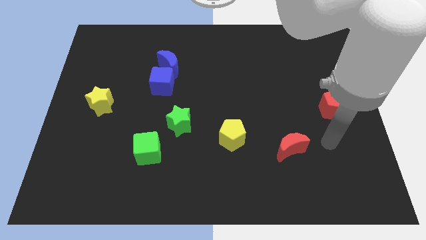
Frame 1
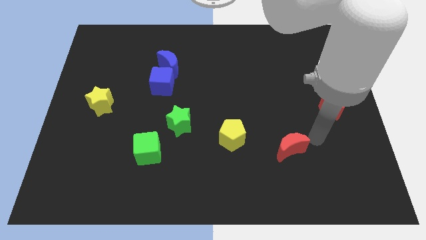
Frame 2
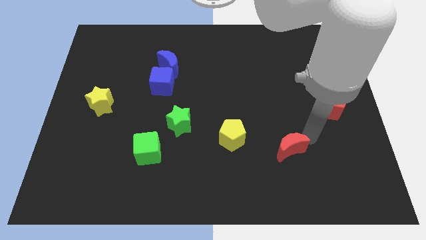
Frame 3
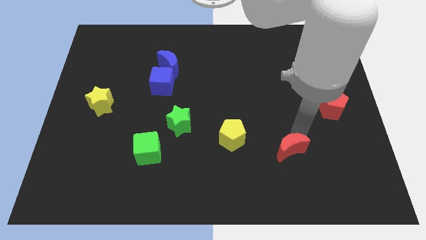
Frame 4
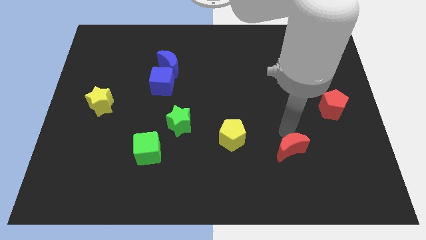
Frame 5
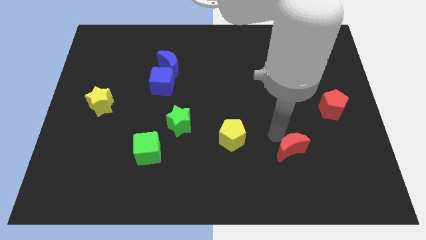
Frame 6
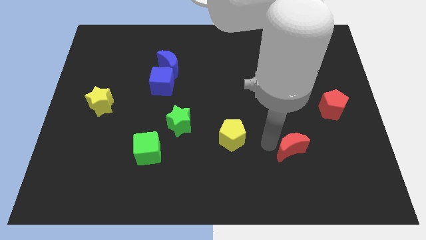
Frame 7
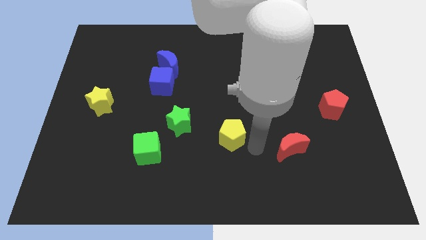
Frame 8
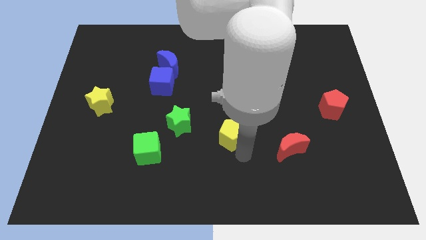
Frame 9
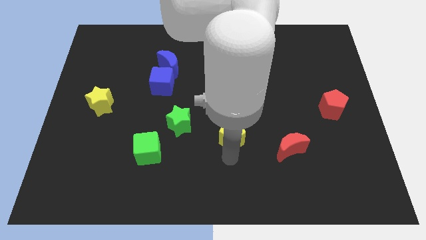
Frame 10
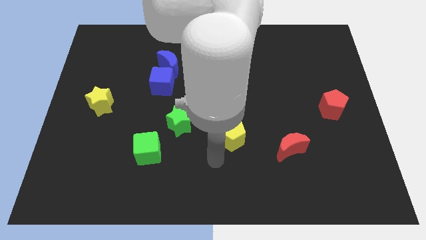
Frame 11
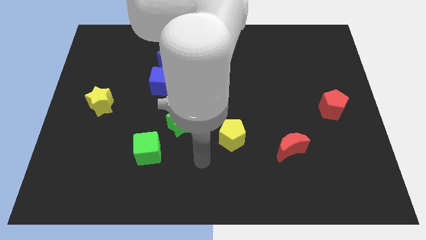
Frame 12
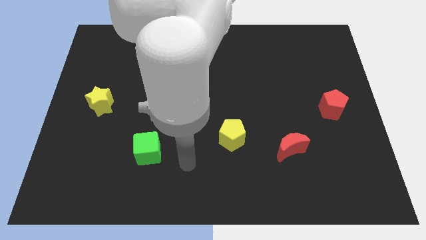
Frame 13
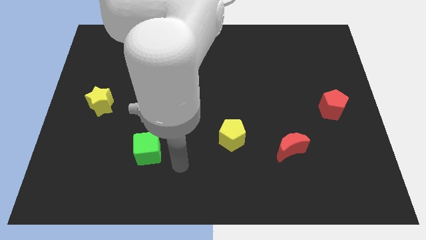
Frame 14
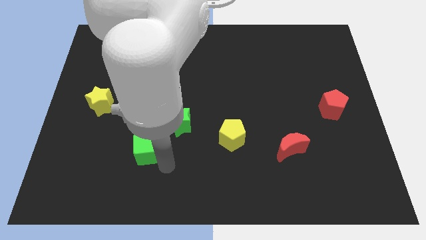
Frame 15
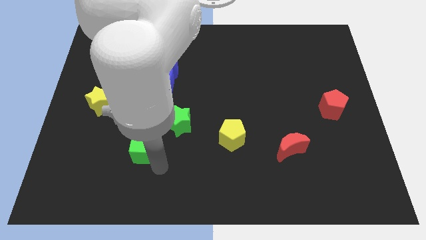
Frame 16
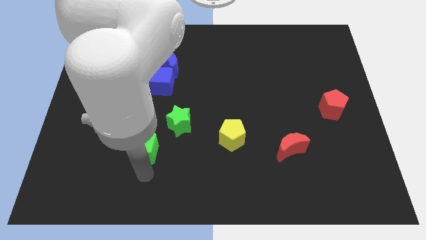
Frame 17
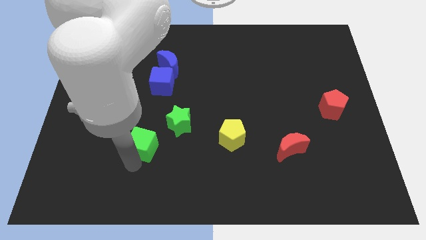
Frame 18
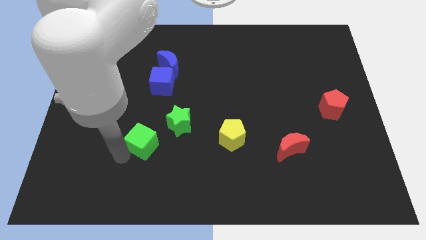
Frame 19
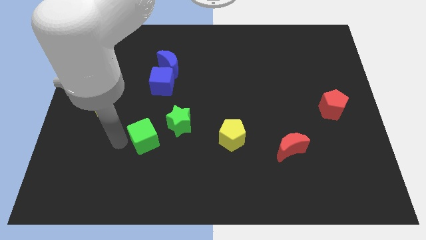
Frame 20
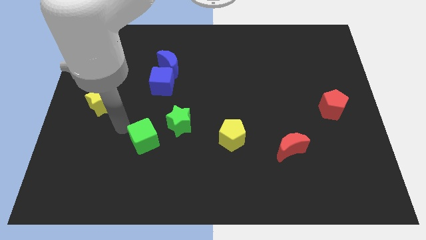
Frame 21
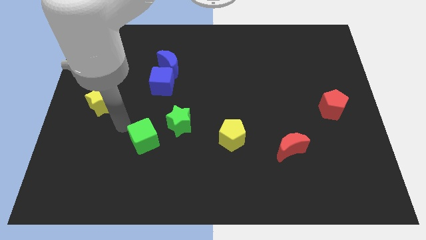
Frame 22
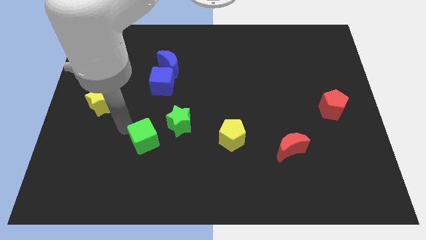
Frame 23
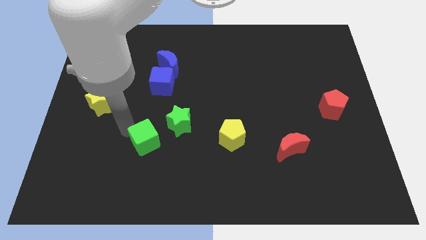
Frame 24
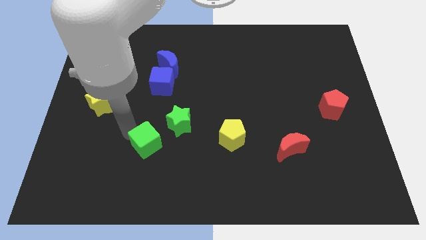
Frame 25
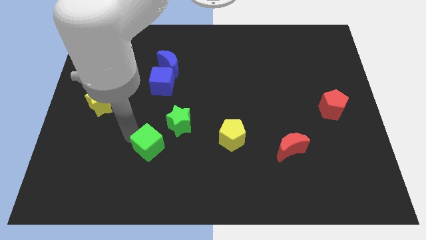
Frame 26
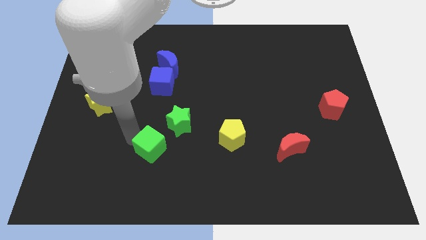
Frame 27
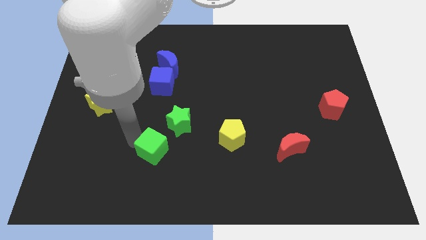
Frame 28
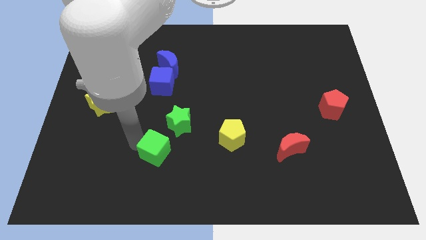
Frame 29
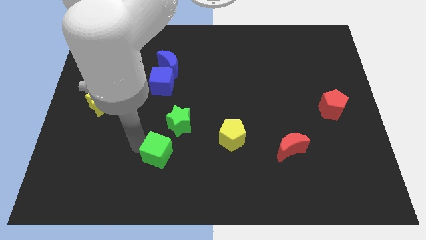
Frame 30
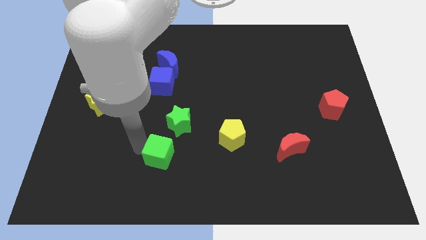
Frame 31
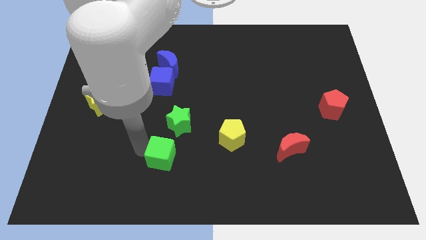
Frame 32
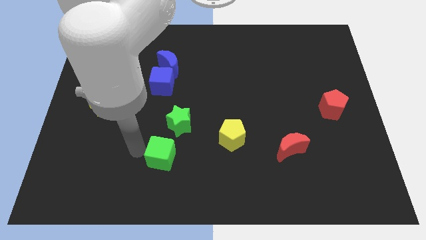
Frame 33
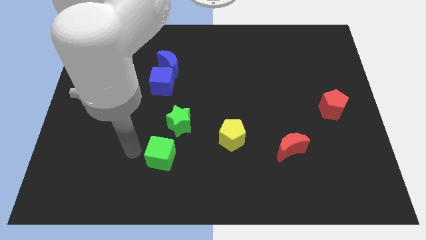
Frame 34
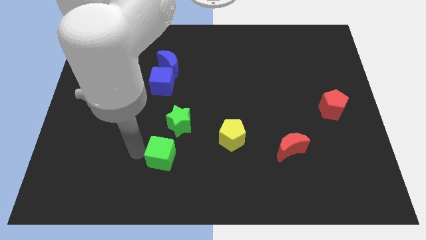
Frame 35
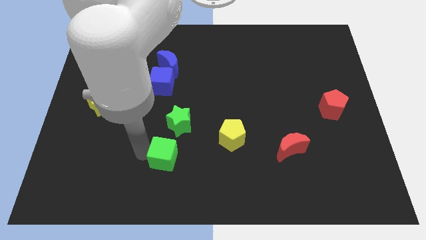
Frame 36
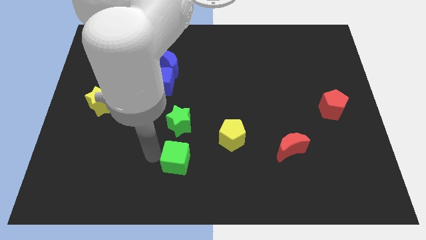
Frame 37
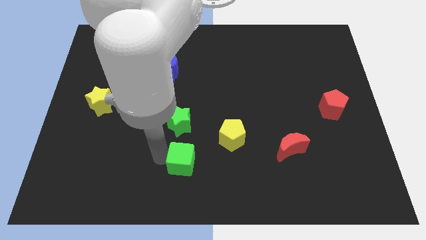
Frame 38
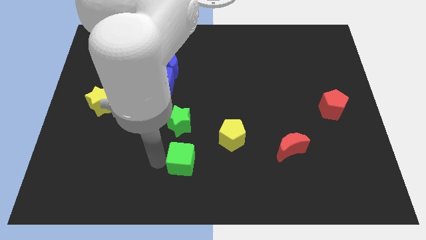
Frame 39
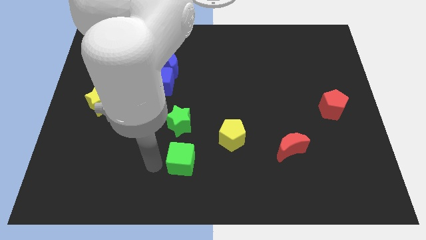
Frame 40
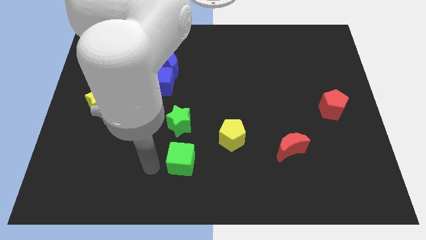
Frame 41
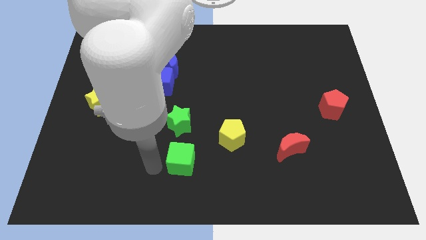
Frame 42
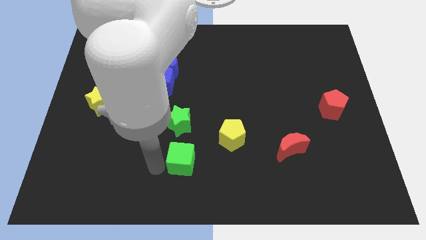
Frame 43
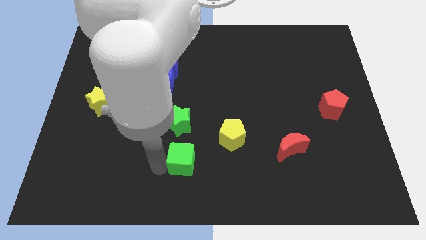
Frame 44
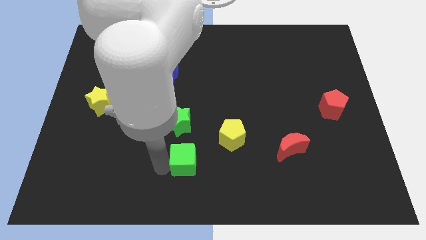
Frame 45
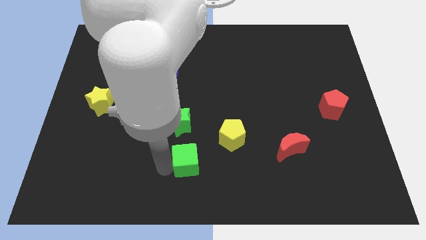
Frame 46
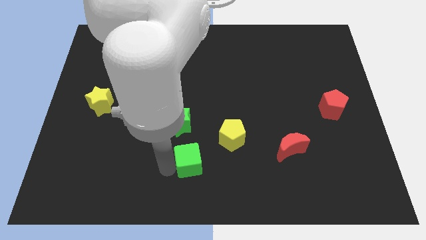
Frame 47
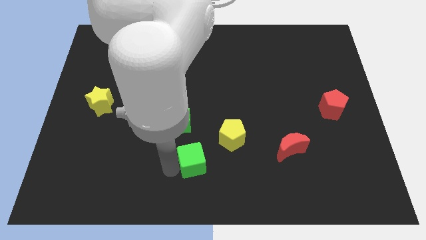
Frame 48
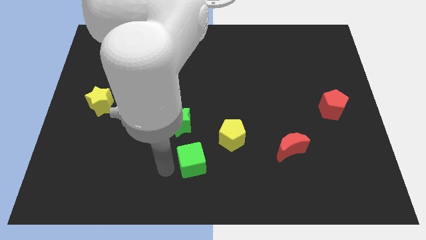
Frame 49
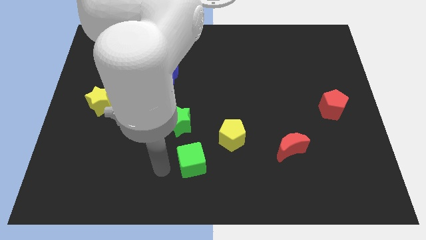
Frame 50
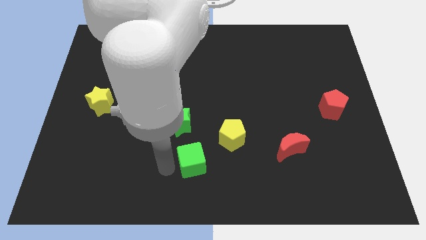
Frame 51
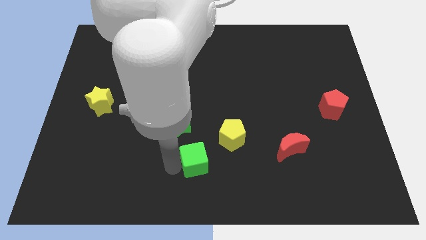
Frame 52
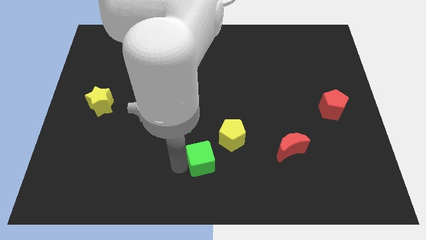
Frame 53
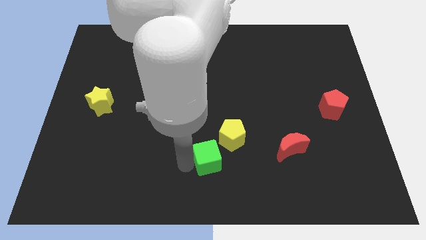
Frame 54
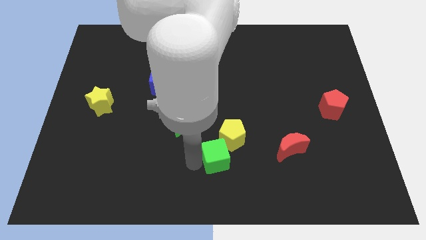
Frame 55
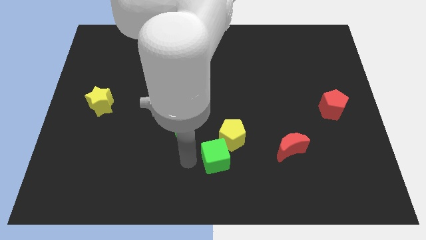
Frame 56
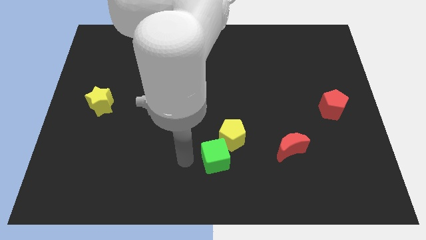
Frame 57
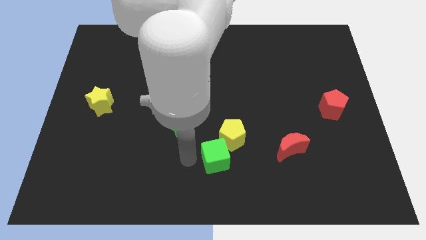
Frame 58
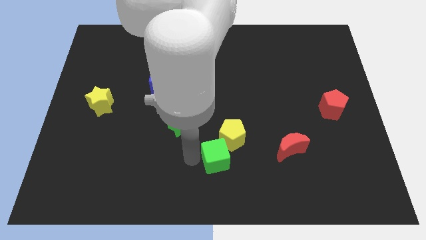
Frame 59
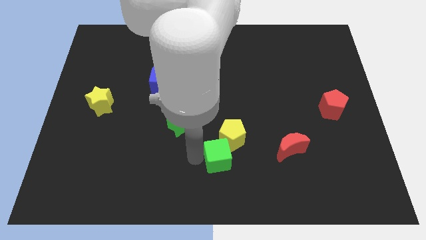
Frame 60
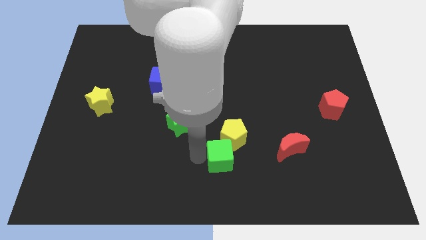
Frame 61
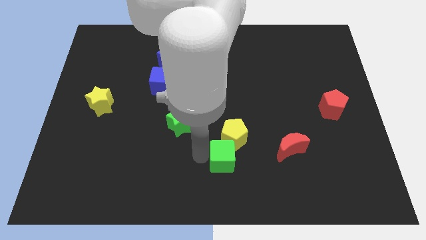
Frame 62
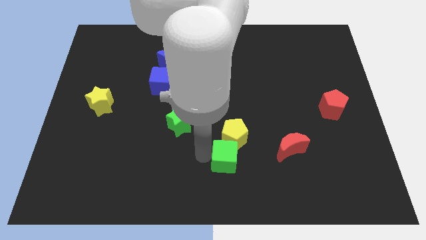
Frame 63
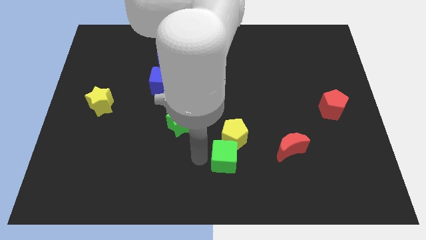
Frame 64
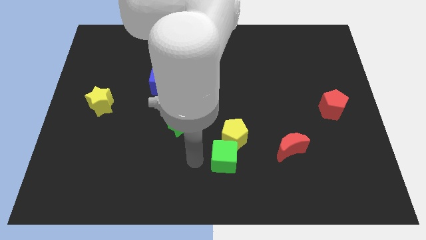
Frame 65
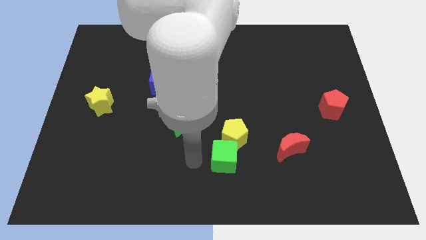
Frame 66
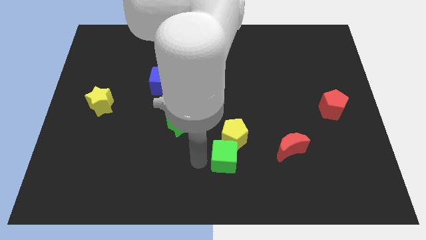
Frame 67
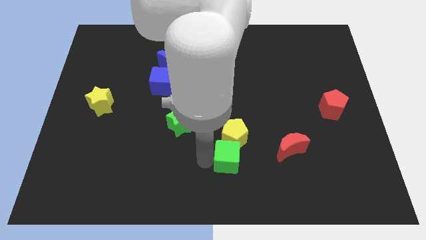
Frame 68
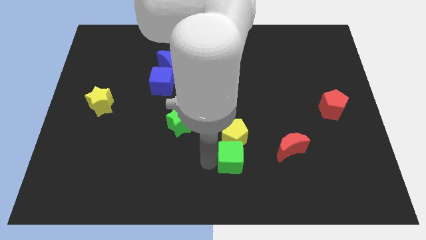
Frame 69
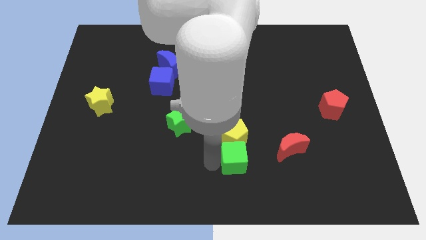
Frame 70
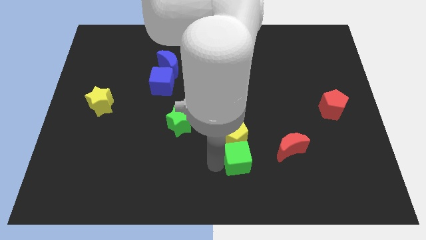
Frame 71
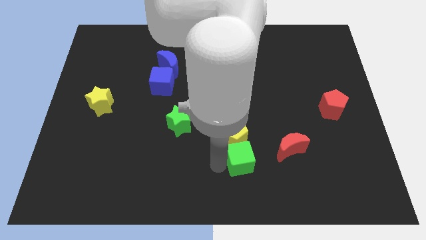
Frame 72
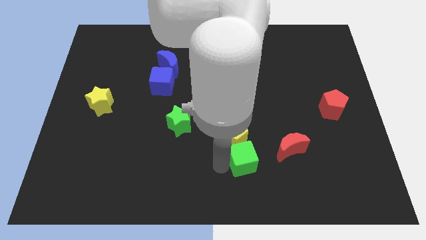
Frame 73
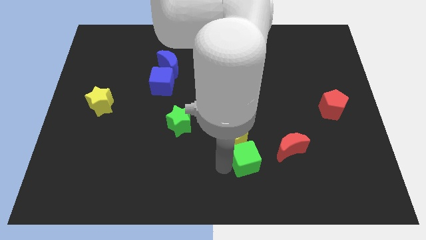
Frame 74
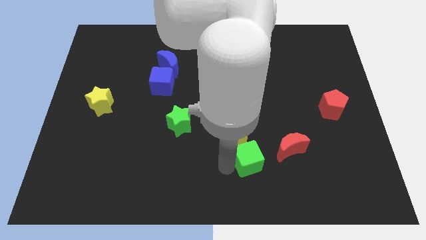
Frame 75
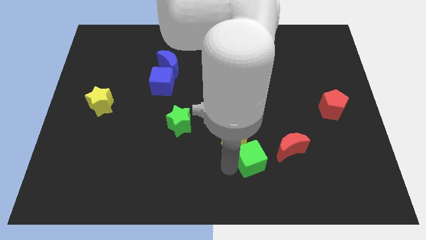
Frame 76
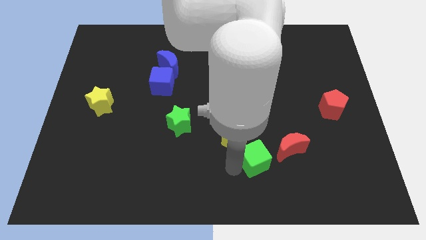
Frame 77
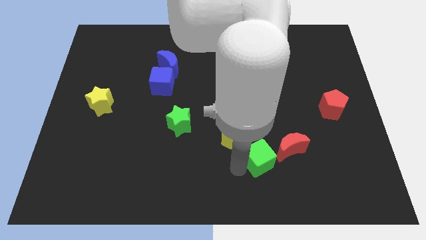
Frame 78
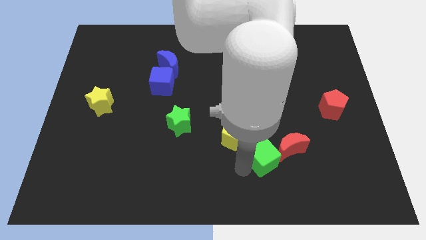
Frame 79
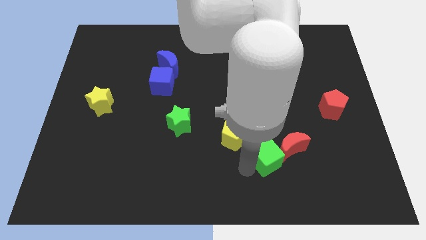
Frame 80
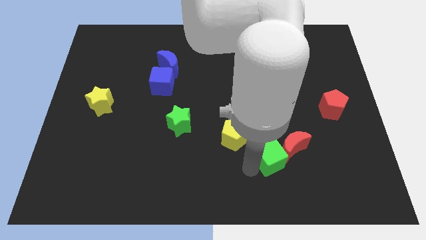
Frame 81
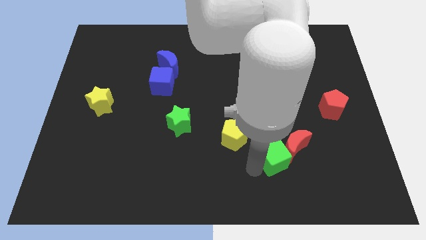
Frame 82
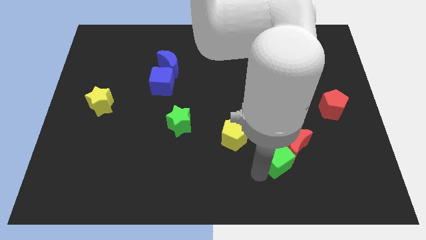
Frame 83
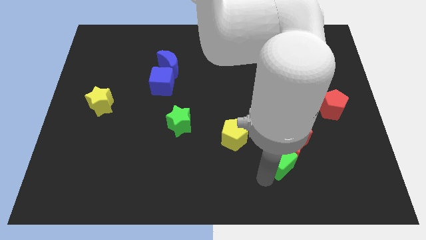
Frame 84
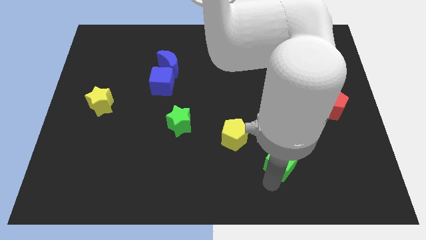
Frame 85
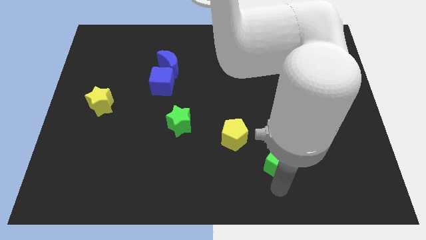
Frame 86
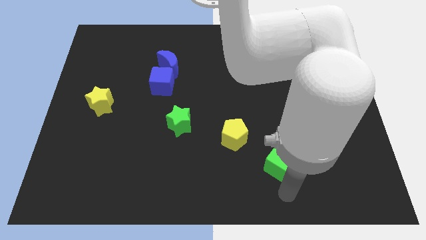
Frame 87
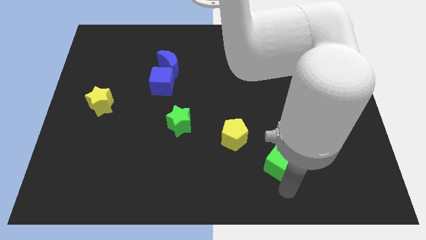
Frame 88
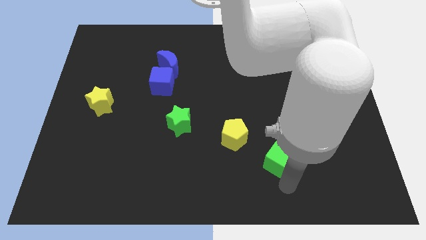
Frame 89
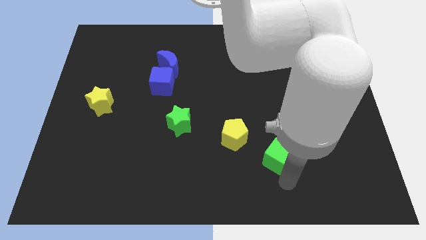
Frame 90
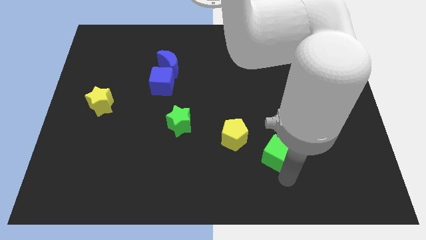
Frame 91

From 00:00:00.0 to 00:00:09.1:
slide the green cube to the right of the yellow pentagon
